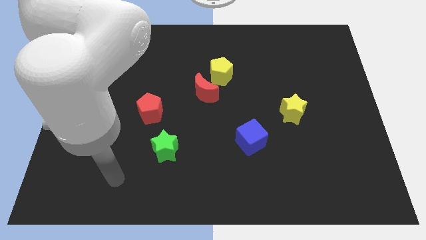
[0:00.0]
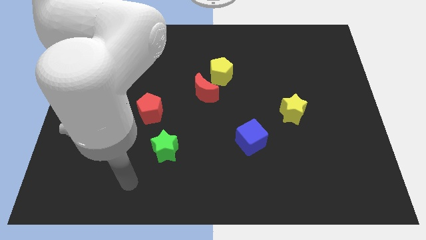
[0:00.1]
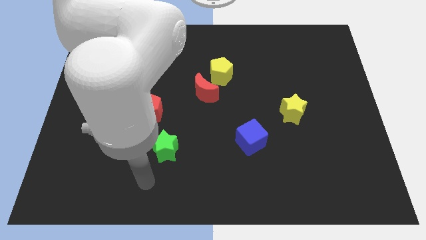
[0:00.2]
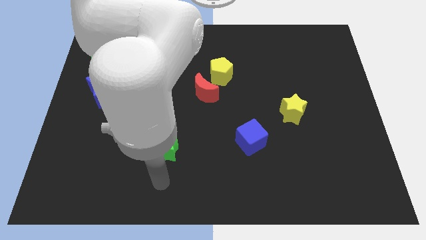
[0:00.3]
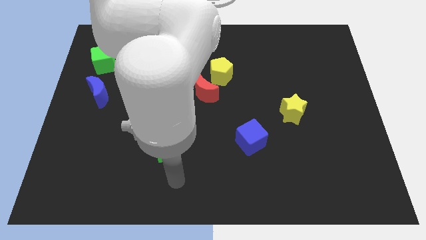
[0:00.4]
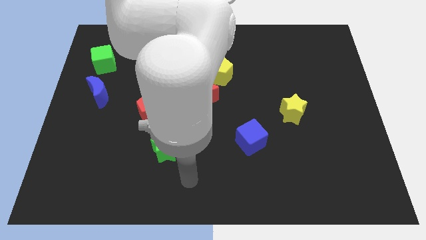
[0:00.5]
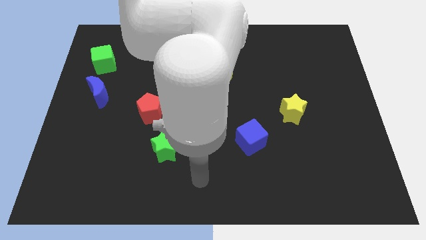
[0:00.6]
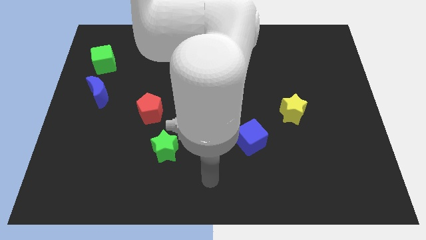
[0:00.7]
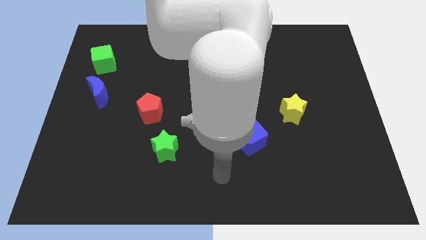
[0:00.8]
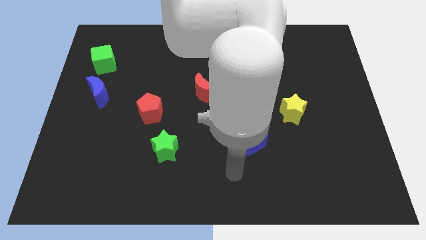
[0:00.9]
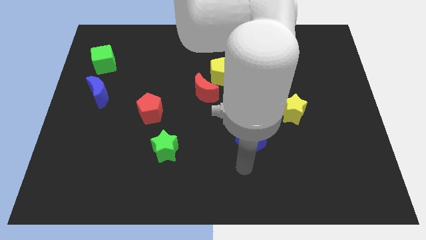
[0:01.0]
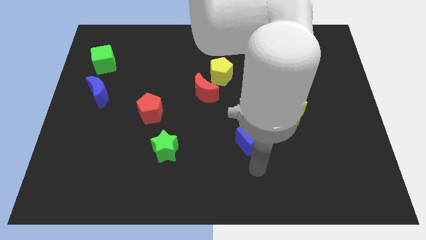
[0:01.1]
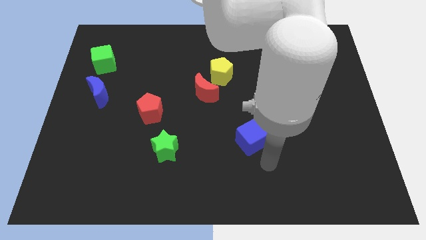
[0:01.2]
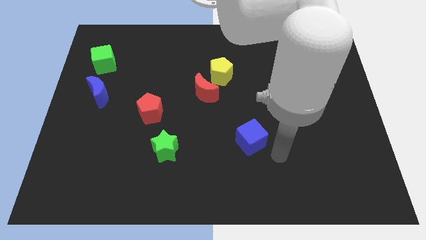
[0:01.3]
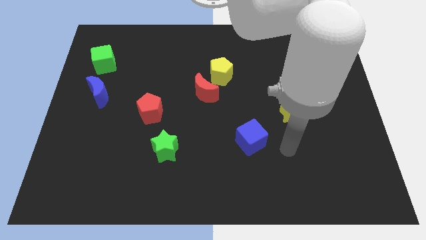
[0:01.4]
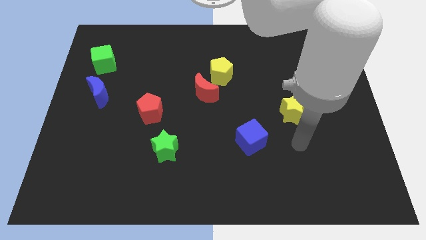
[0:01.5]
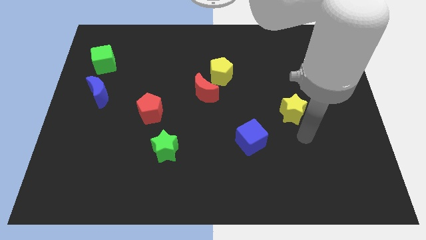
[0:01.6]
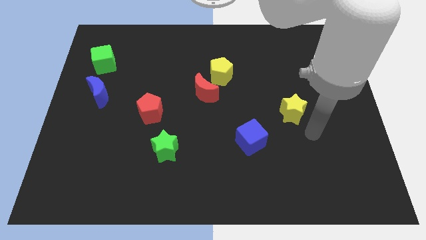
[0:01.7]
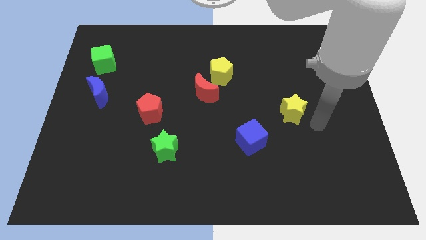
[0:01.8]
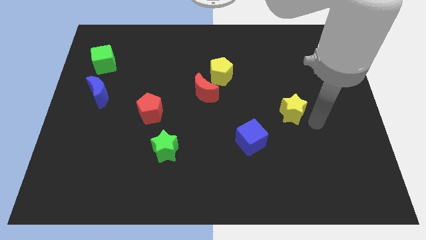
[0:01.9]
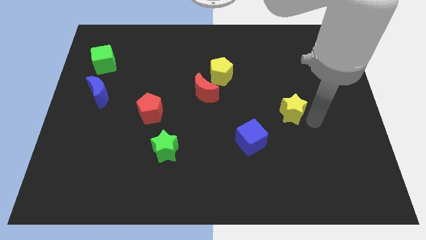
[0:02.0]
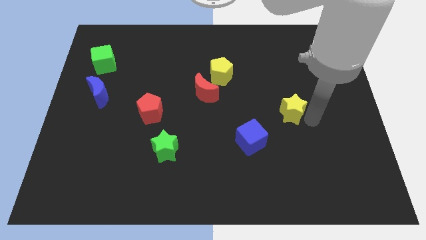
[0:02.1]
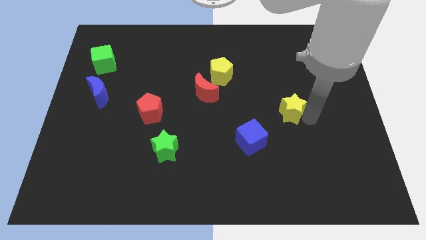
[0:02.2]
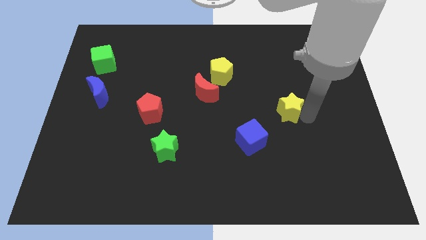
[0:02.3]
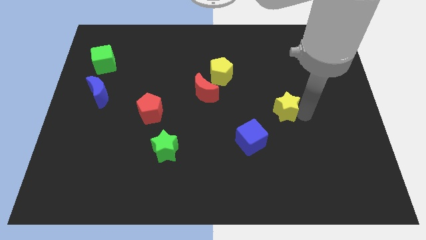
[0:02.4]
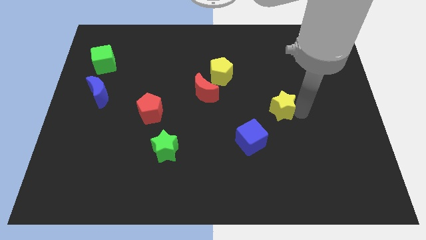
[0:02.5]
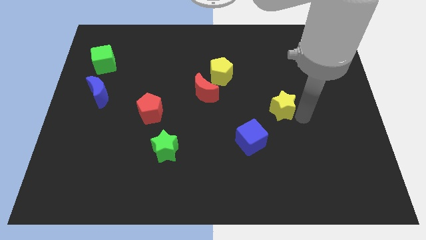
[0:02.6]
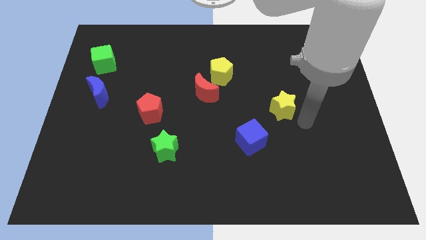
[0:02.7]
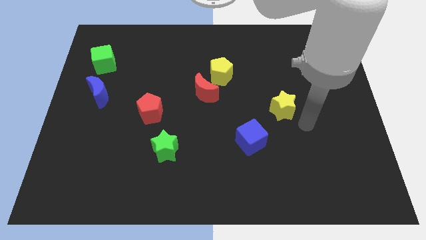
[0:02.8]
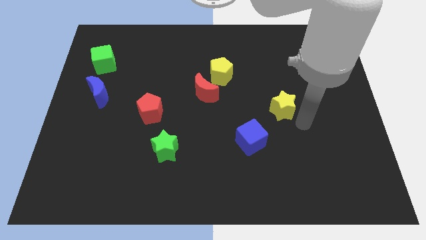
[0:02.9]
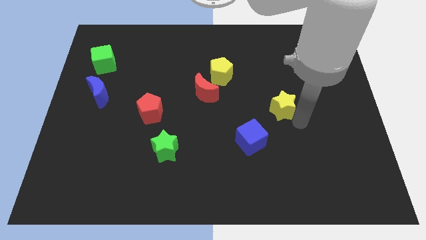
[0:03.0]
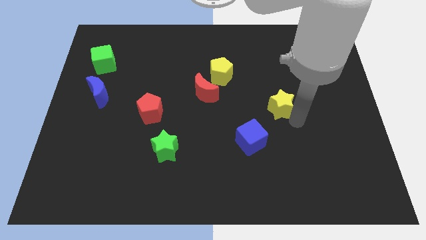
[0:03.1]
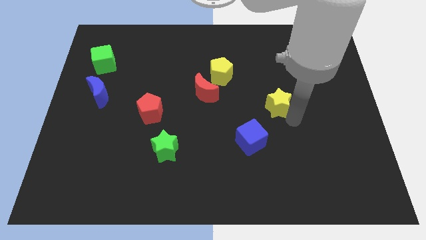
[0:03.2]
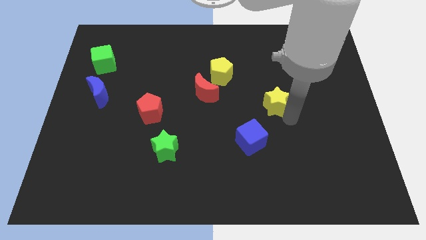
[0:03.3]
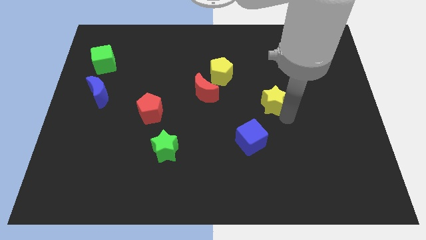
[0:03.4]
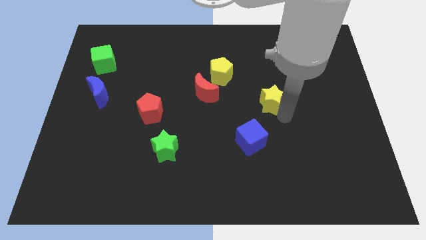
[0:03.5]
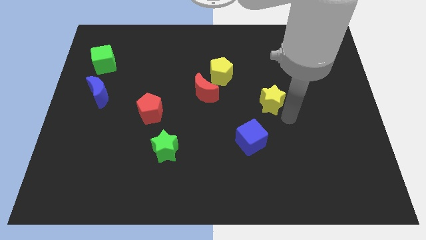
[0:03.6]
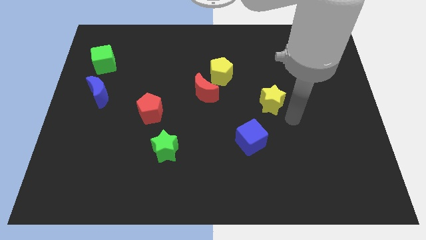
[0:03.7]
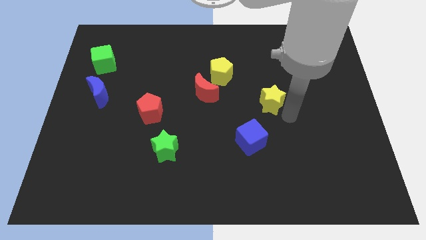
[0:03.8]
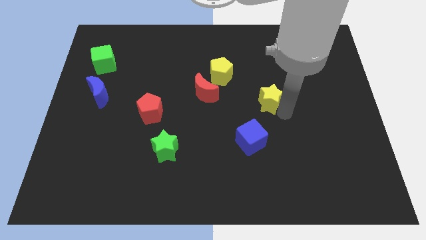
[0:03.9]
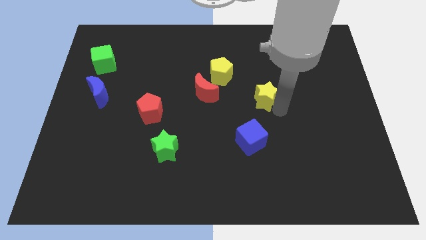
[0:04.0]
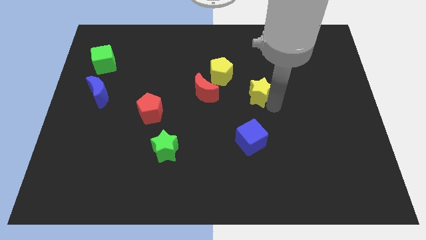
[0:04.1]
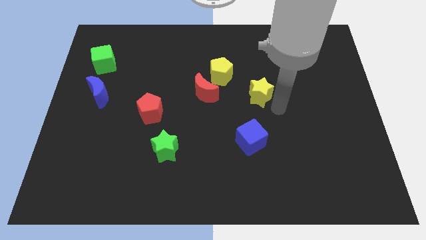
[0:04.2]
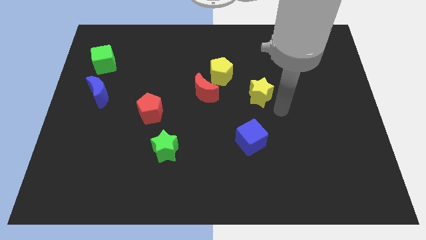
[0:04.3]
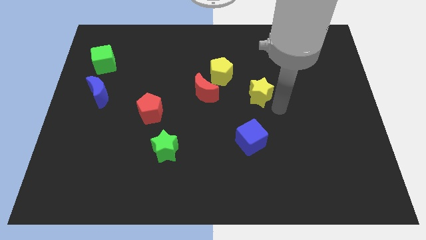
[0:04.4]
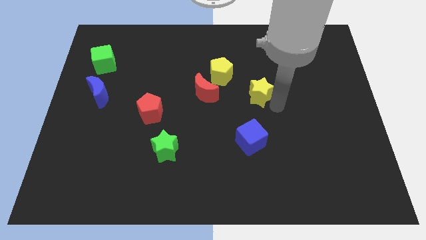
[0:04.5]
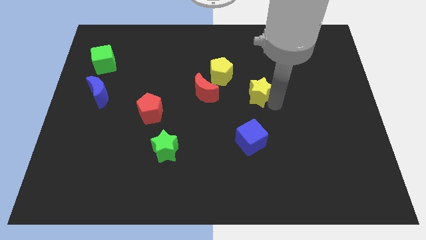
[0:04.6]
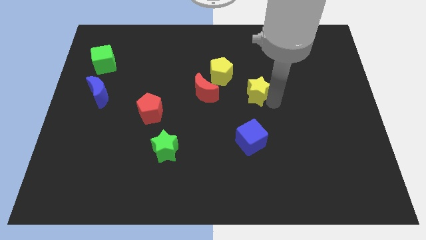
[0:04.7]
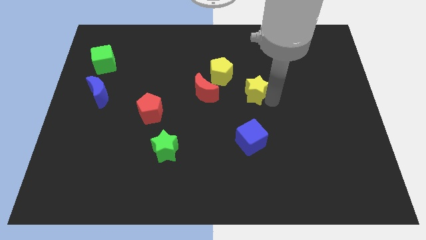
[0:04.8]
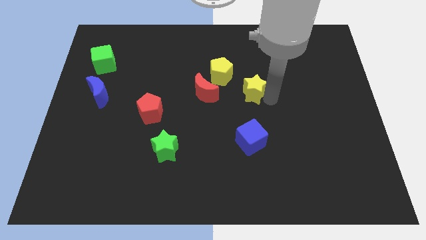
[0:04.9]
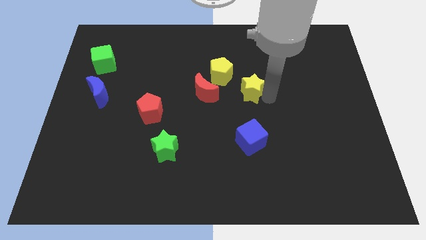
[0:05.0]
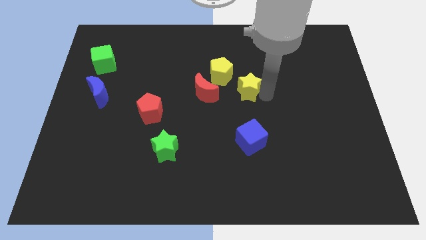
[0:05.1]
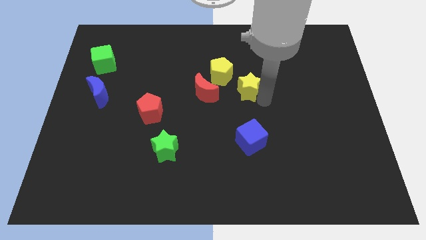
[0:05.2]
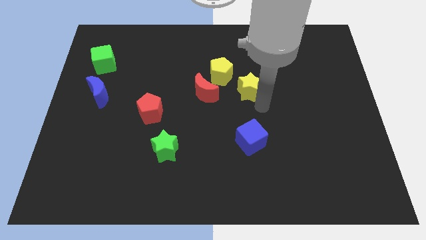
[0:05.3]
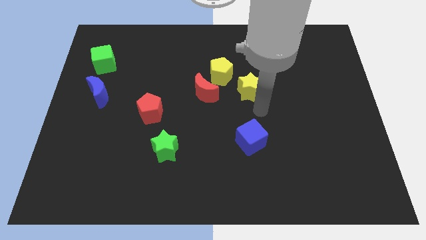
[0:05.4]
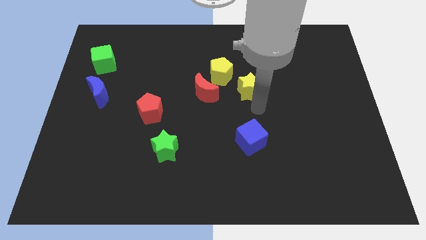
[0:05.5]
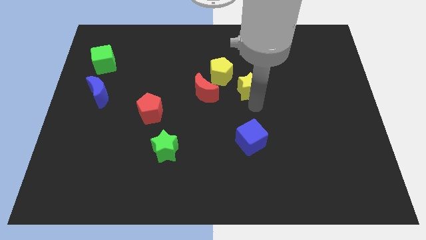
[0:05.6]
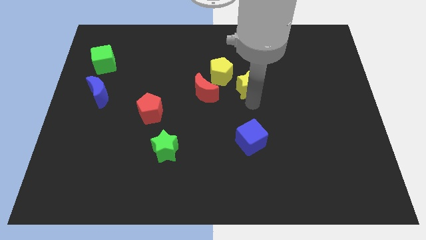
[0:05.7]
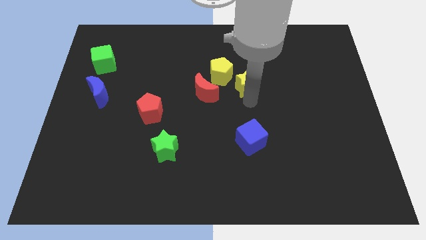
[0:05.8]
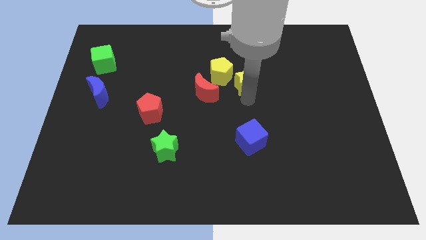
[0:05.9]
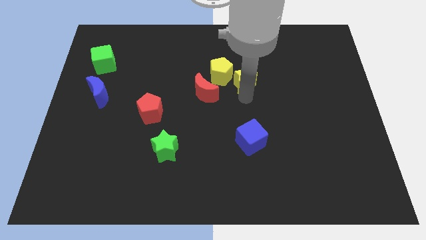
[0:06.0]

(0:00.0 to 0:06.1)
slide the yellow star to the top right of the red moon

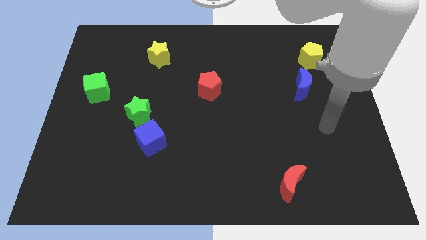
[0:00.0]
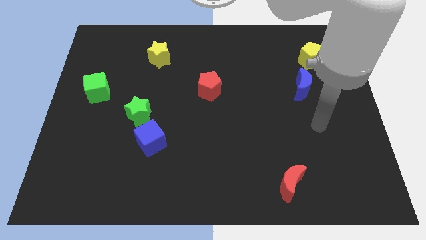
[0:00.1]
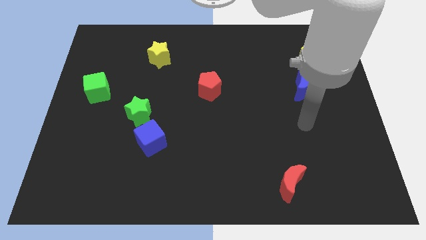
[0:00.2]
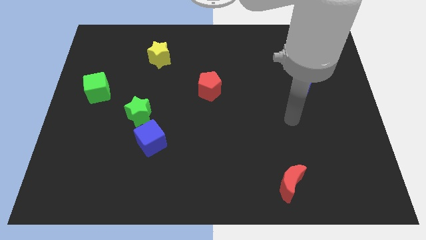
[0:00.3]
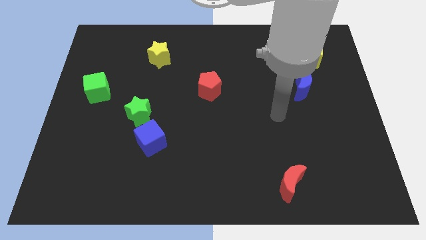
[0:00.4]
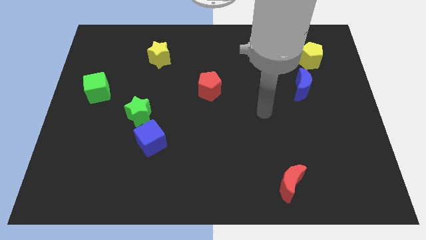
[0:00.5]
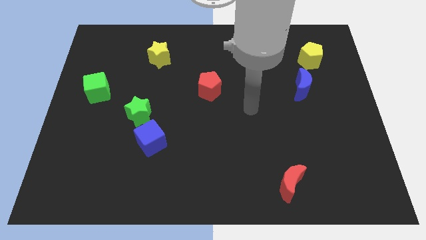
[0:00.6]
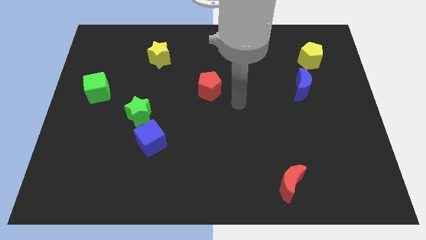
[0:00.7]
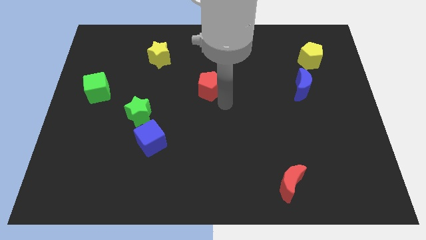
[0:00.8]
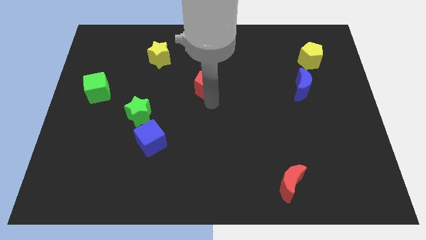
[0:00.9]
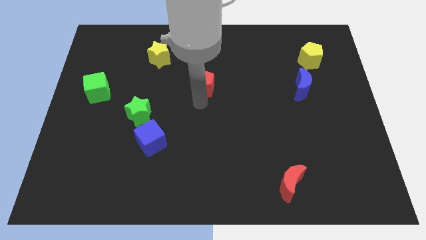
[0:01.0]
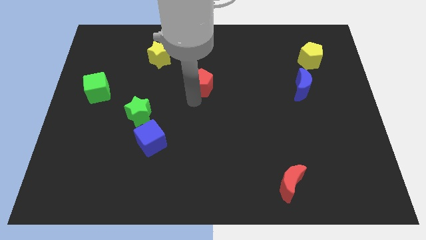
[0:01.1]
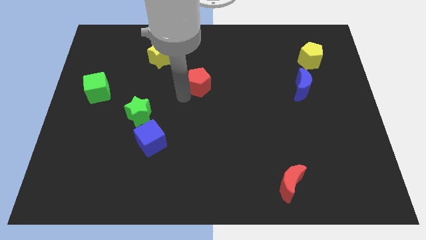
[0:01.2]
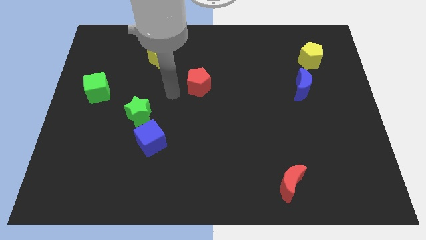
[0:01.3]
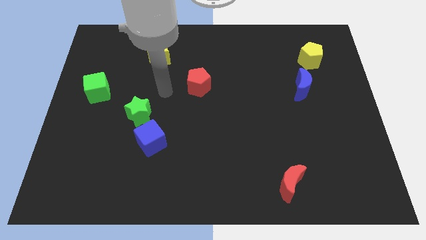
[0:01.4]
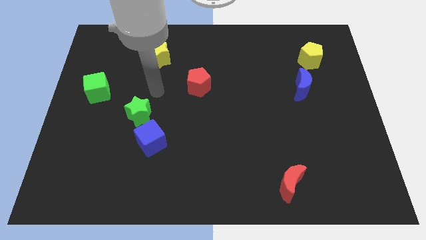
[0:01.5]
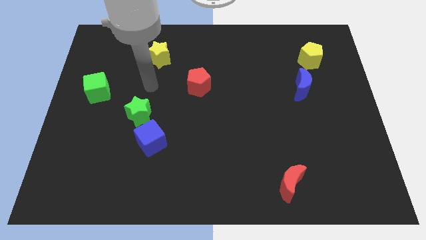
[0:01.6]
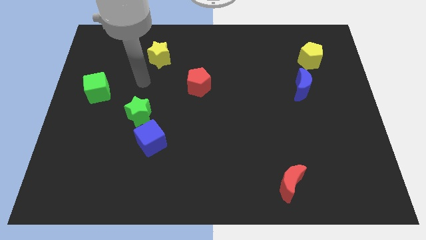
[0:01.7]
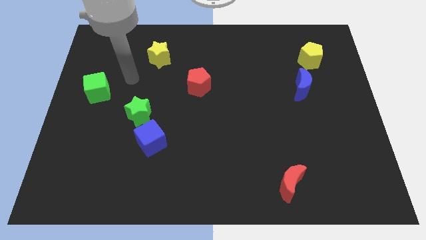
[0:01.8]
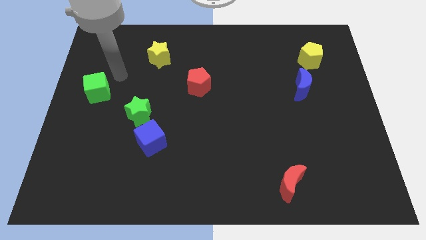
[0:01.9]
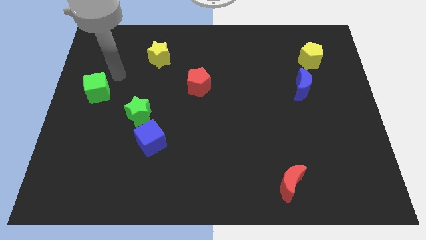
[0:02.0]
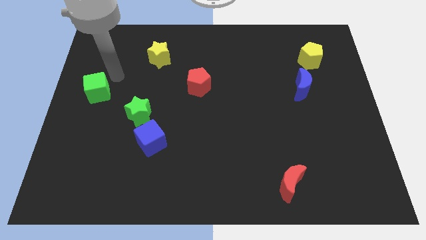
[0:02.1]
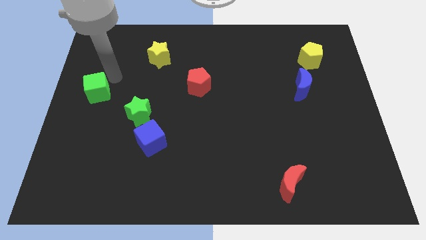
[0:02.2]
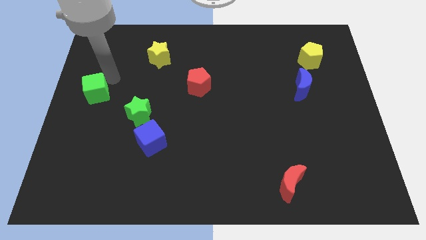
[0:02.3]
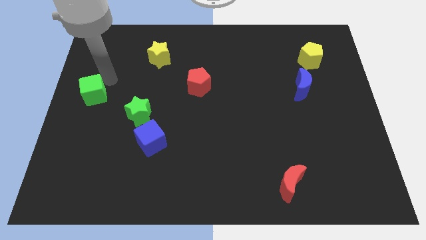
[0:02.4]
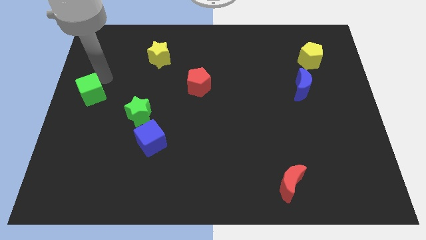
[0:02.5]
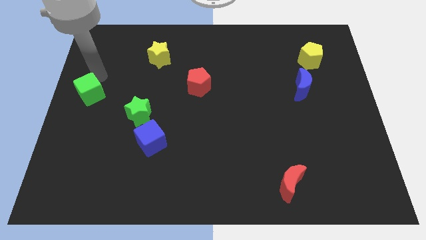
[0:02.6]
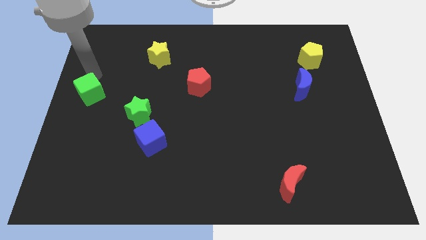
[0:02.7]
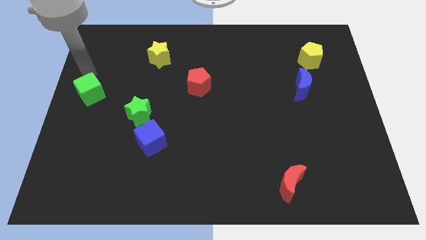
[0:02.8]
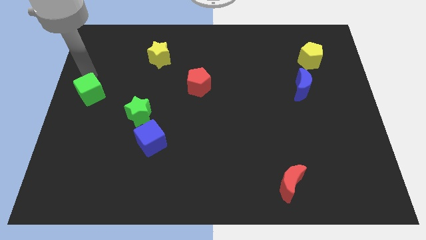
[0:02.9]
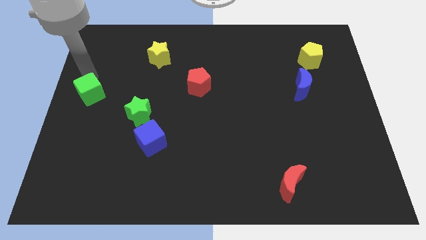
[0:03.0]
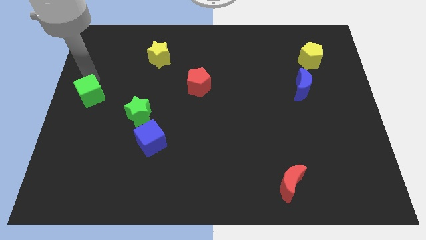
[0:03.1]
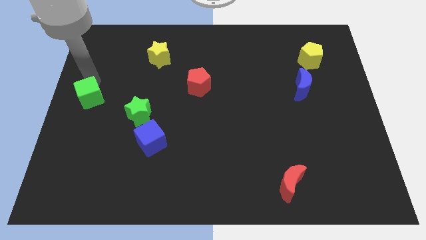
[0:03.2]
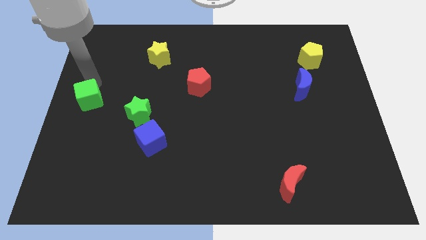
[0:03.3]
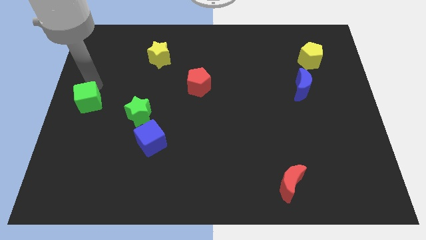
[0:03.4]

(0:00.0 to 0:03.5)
put the green cube left of the green star
